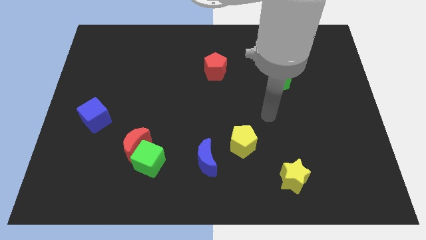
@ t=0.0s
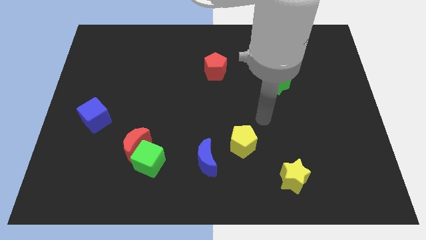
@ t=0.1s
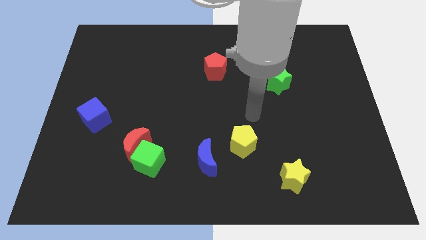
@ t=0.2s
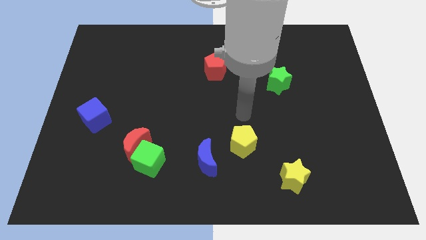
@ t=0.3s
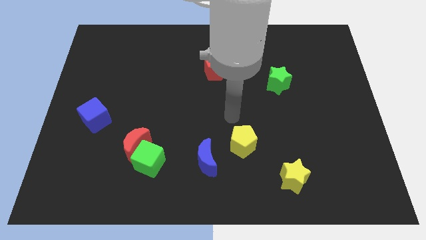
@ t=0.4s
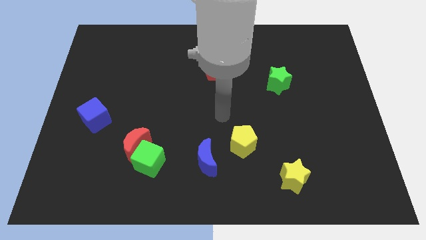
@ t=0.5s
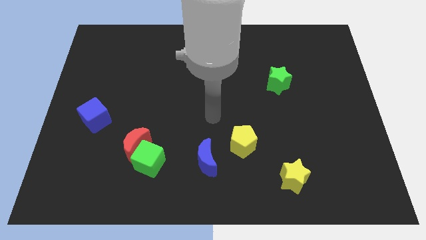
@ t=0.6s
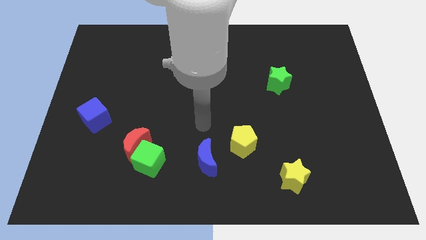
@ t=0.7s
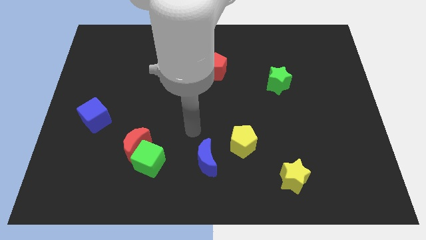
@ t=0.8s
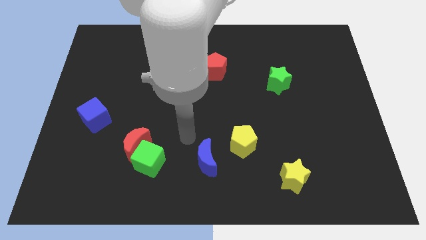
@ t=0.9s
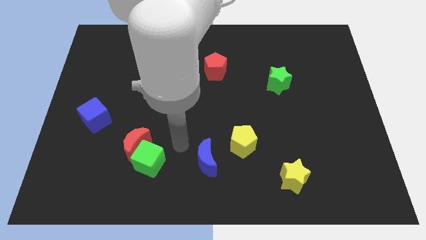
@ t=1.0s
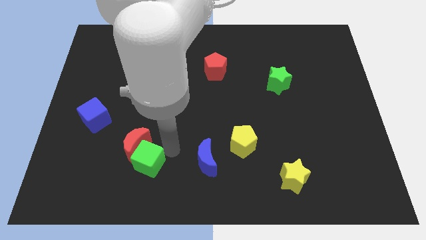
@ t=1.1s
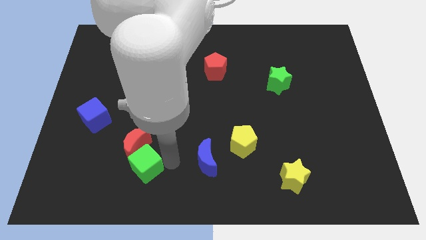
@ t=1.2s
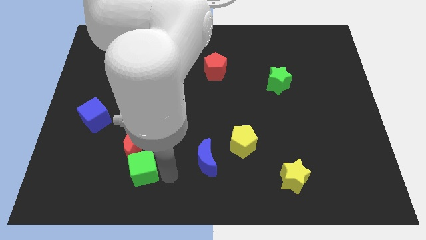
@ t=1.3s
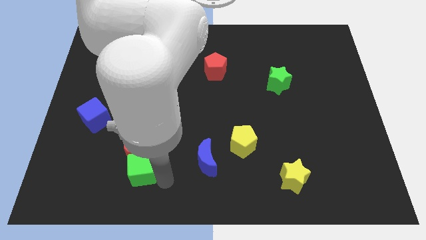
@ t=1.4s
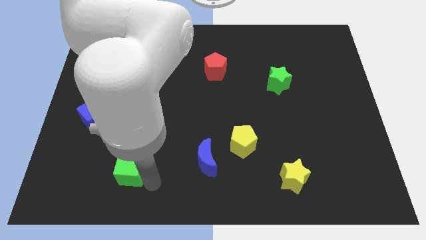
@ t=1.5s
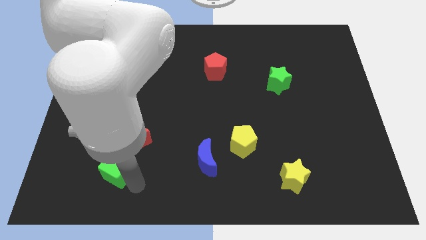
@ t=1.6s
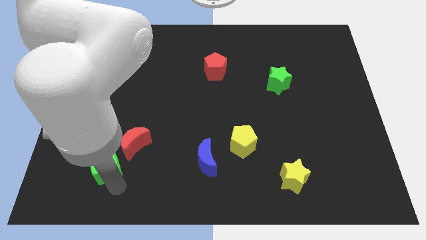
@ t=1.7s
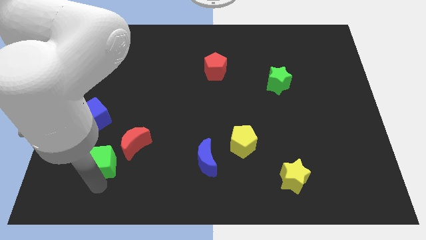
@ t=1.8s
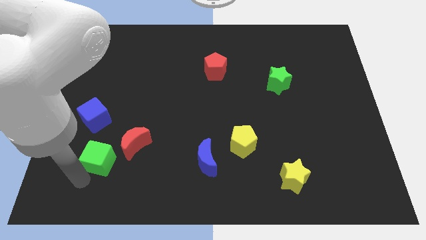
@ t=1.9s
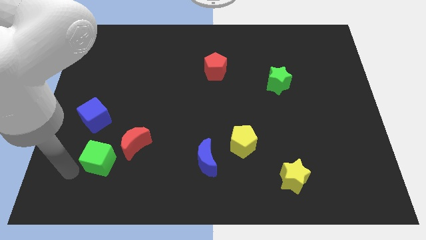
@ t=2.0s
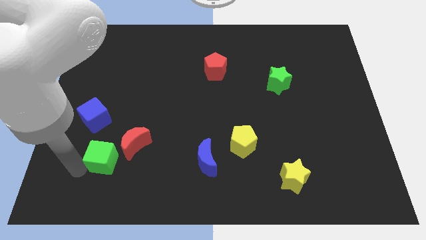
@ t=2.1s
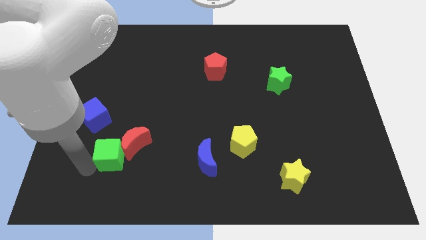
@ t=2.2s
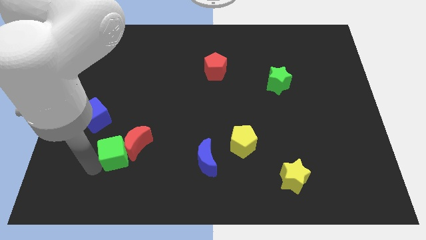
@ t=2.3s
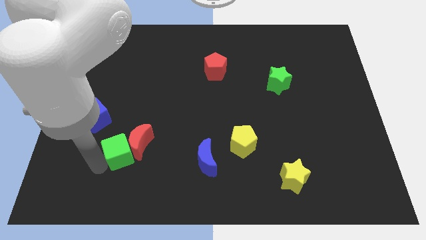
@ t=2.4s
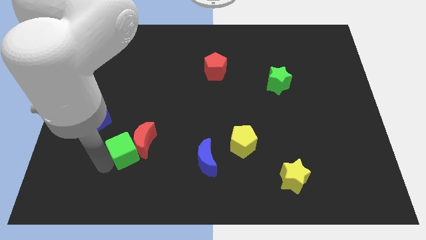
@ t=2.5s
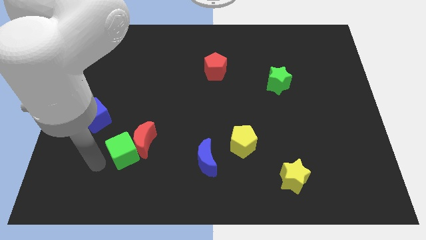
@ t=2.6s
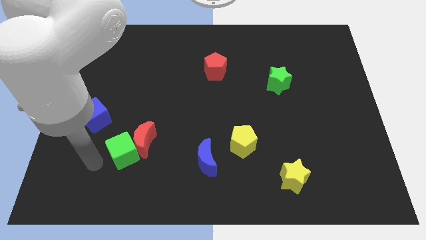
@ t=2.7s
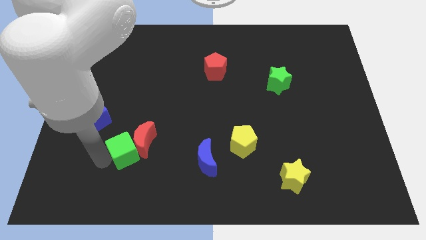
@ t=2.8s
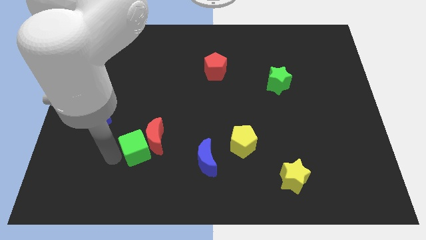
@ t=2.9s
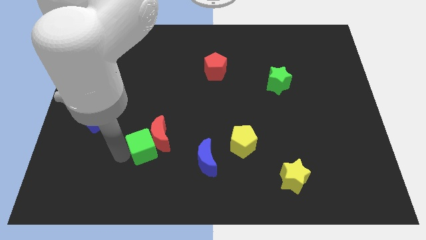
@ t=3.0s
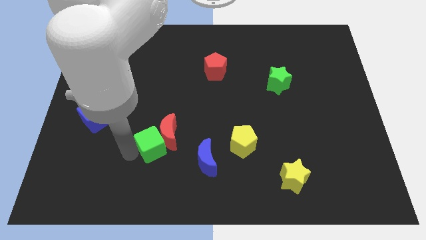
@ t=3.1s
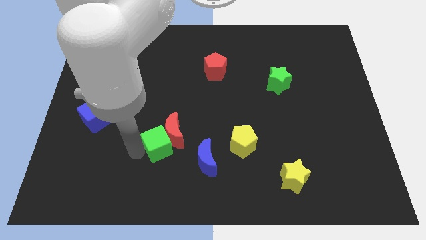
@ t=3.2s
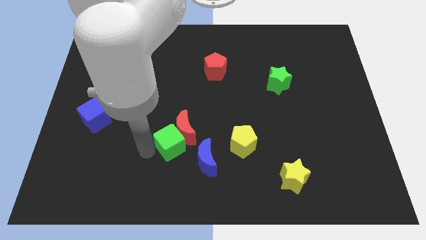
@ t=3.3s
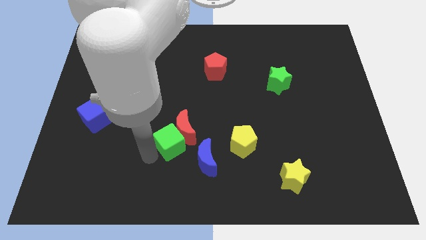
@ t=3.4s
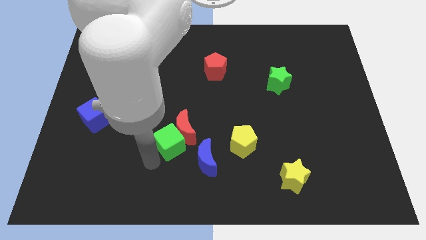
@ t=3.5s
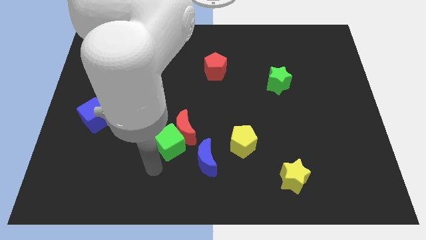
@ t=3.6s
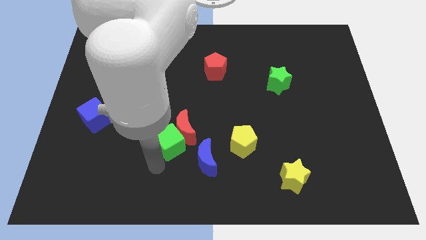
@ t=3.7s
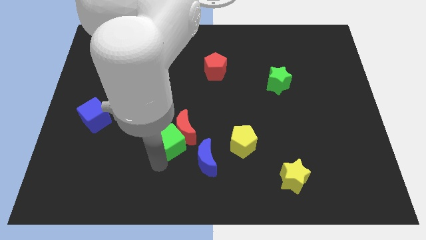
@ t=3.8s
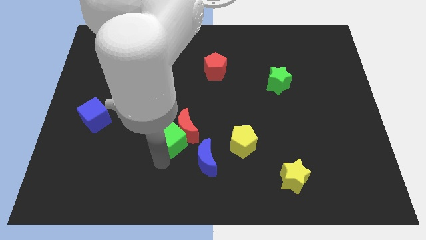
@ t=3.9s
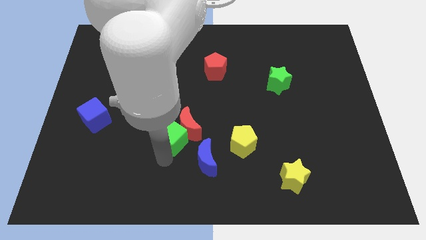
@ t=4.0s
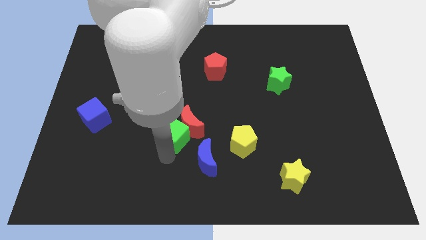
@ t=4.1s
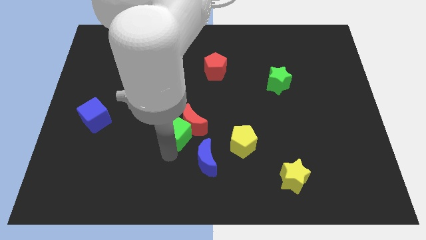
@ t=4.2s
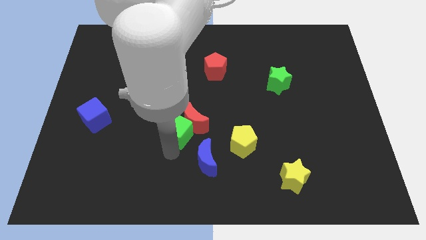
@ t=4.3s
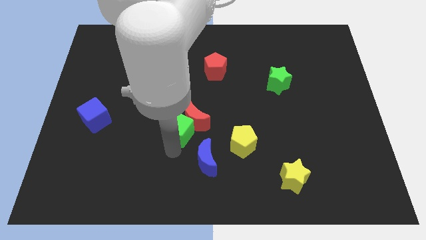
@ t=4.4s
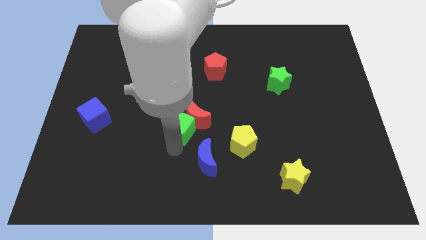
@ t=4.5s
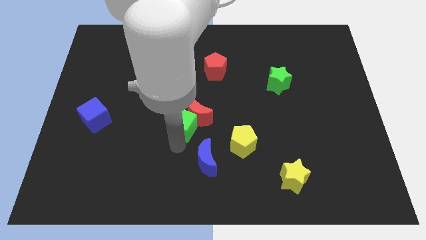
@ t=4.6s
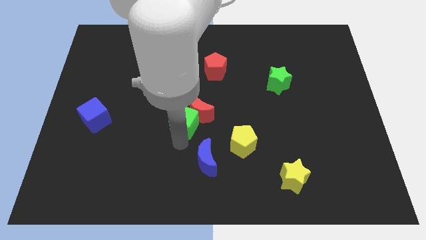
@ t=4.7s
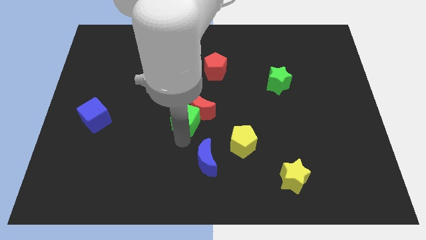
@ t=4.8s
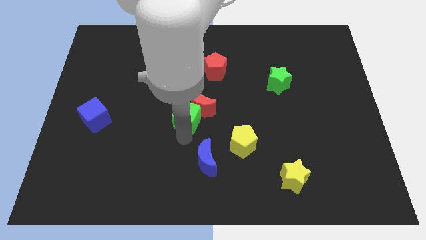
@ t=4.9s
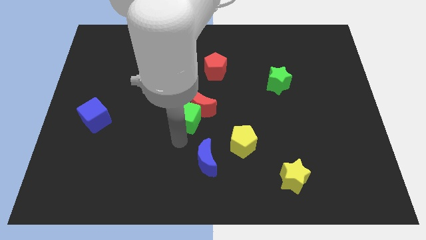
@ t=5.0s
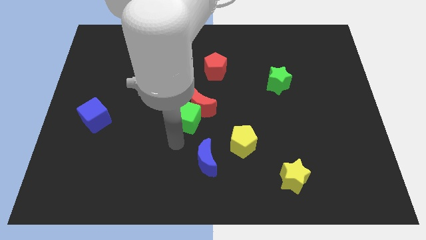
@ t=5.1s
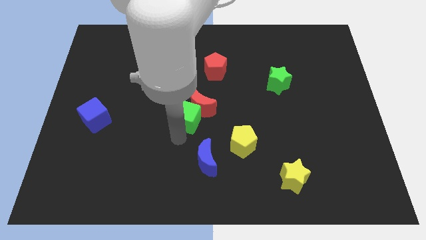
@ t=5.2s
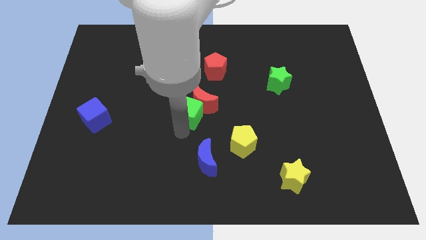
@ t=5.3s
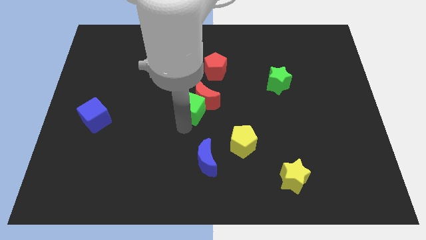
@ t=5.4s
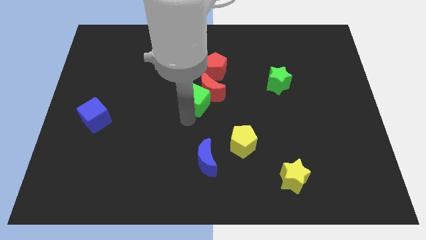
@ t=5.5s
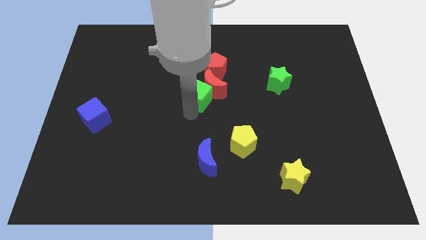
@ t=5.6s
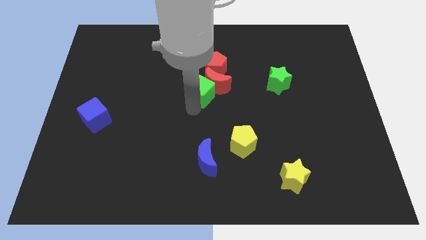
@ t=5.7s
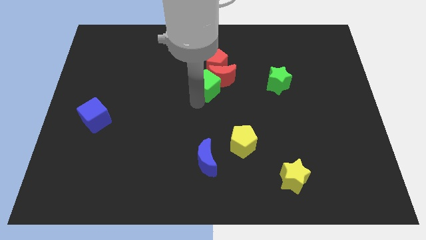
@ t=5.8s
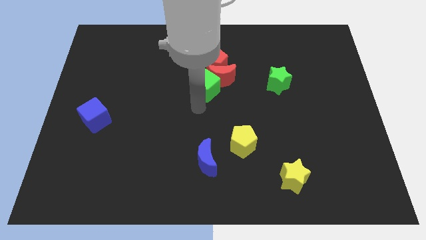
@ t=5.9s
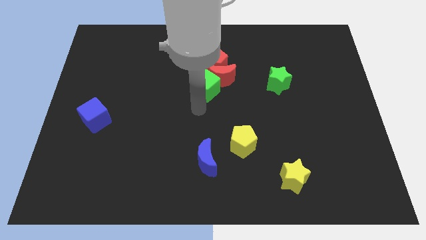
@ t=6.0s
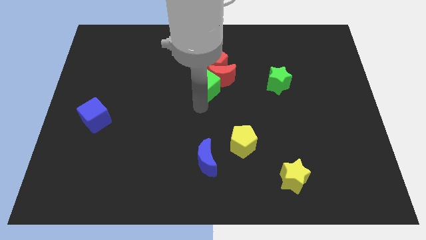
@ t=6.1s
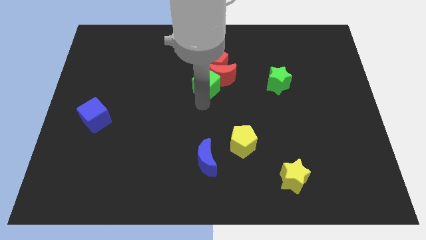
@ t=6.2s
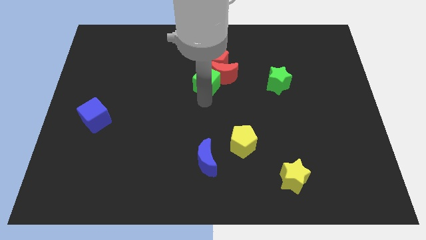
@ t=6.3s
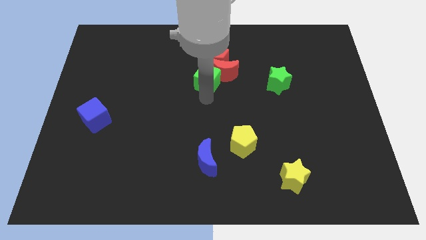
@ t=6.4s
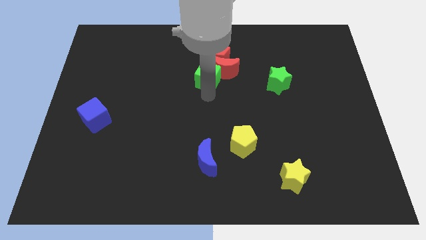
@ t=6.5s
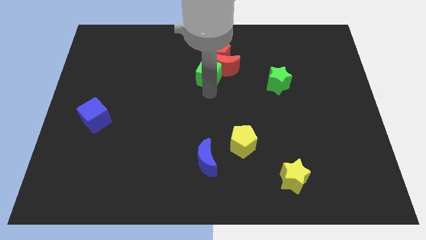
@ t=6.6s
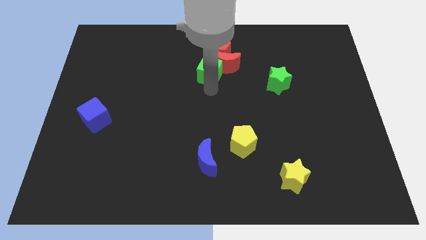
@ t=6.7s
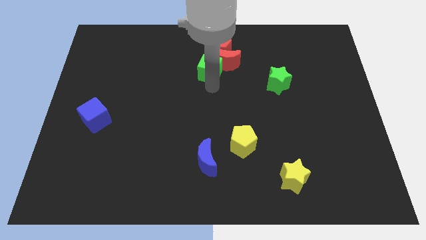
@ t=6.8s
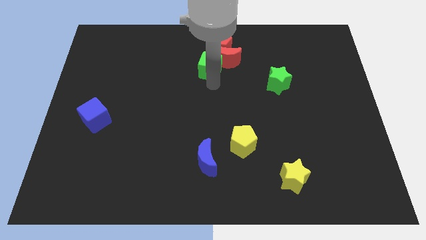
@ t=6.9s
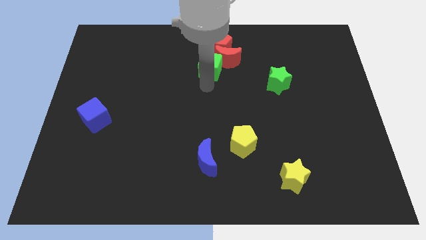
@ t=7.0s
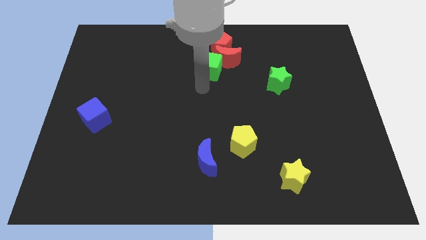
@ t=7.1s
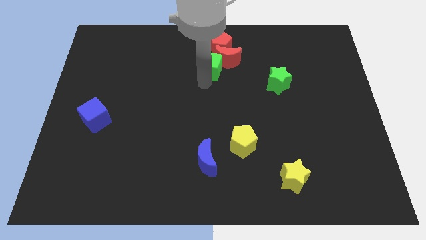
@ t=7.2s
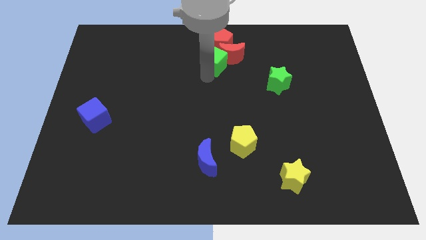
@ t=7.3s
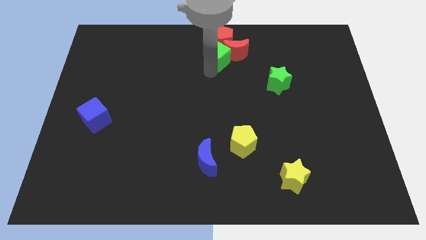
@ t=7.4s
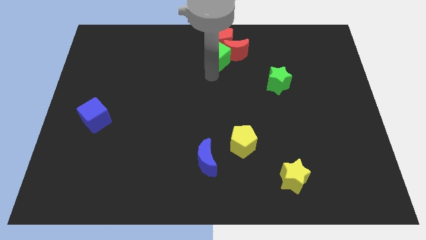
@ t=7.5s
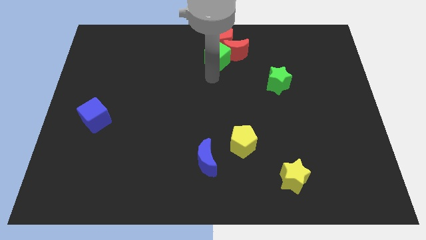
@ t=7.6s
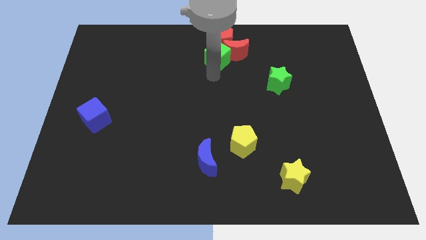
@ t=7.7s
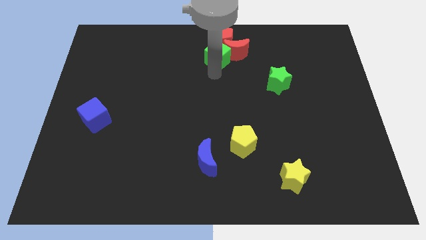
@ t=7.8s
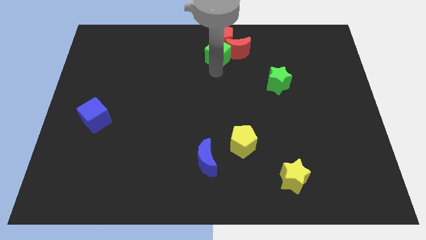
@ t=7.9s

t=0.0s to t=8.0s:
push the green cube next to the red pentagon
